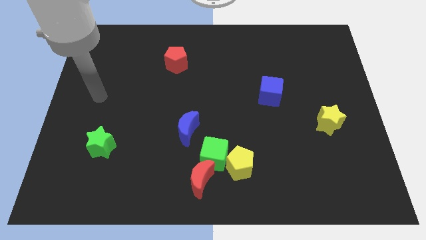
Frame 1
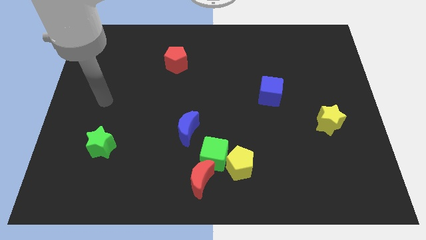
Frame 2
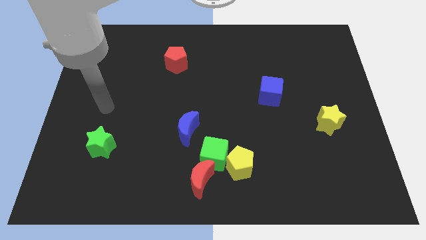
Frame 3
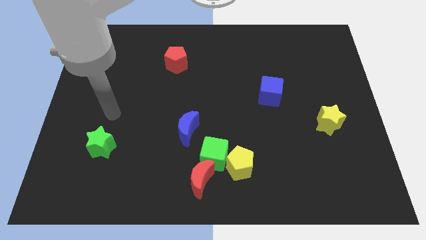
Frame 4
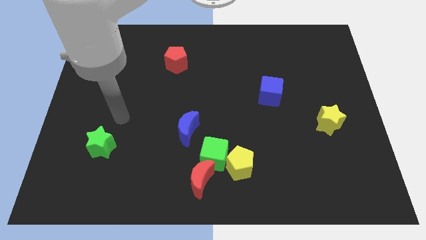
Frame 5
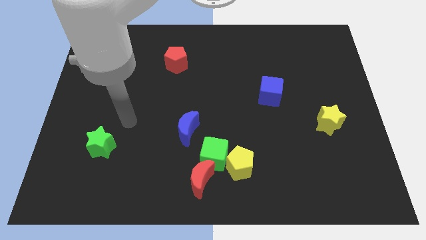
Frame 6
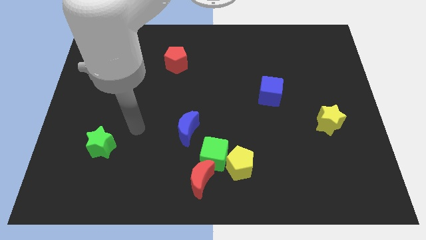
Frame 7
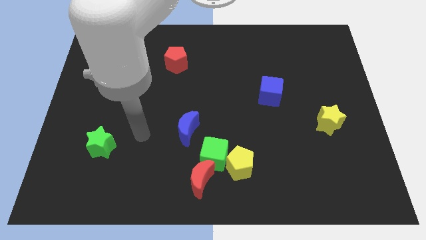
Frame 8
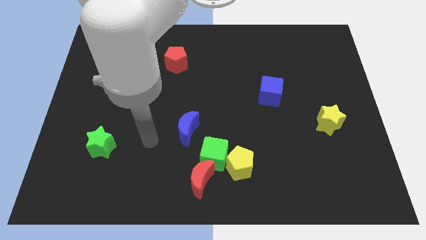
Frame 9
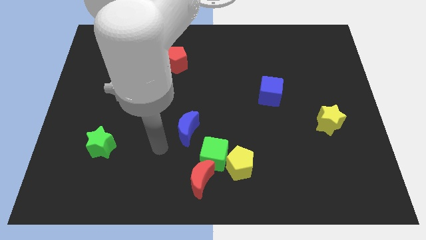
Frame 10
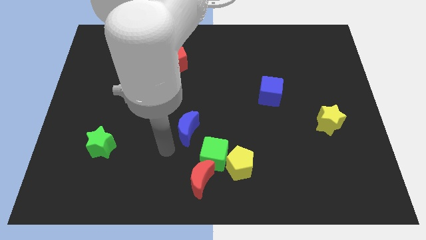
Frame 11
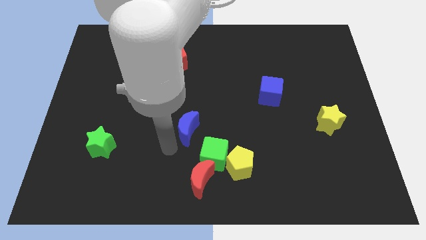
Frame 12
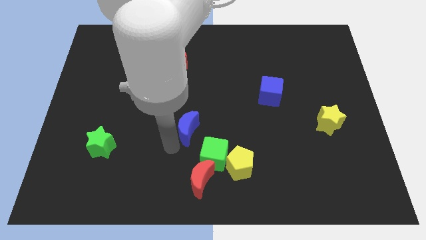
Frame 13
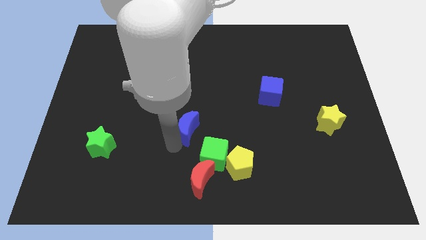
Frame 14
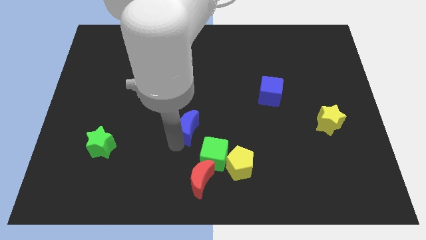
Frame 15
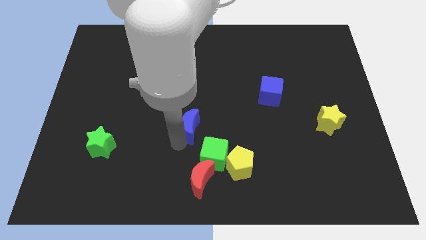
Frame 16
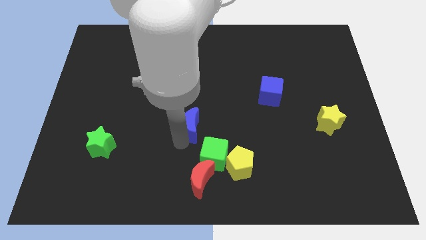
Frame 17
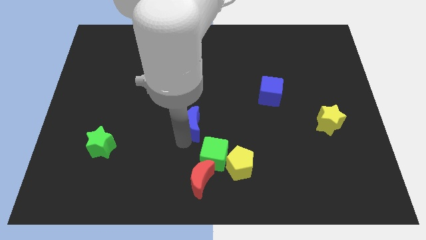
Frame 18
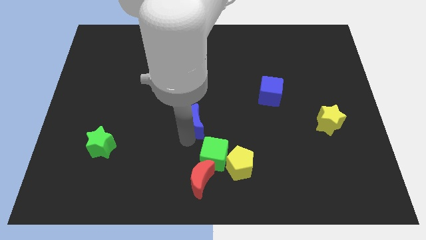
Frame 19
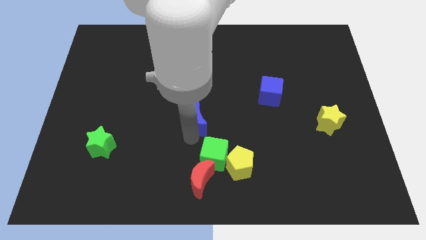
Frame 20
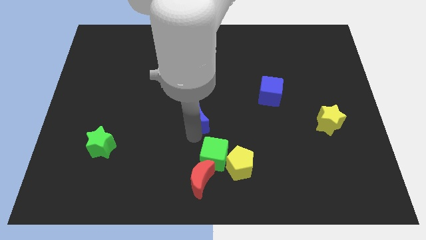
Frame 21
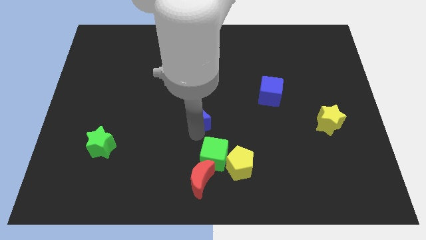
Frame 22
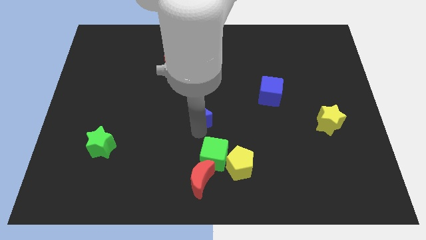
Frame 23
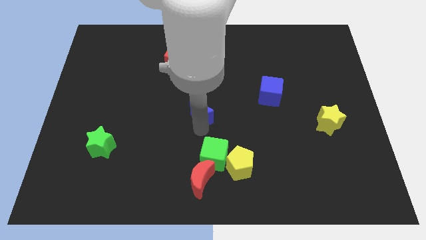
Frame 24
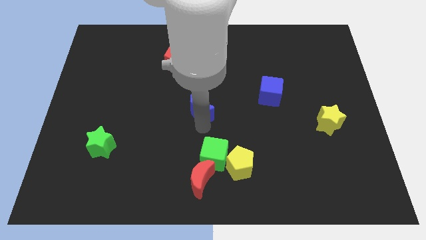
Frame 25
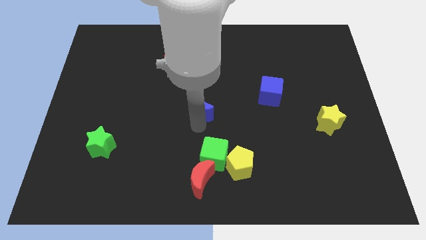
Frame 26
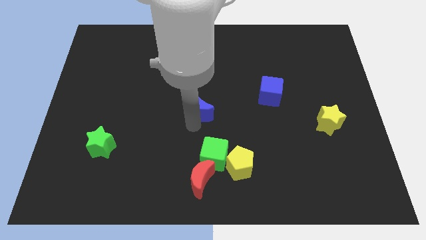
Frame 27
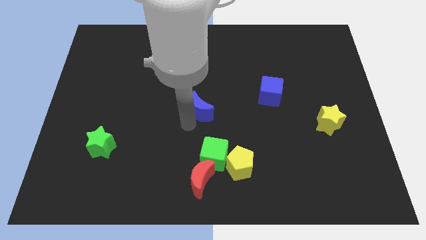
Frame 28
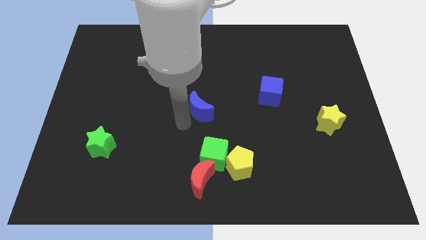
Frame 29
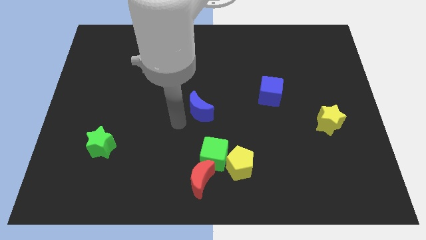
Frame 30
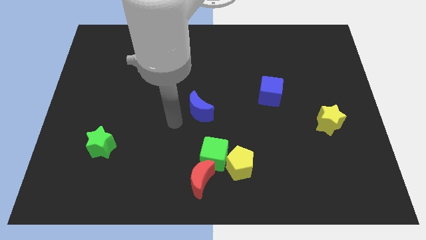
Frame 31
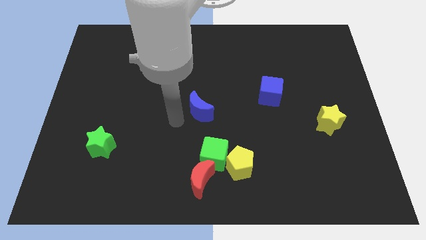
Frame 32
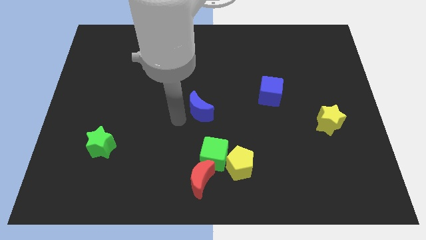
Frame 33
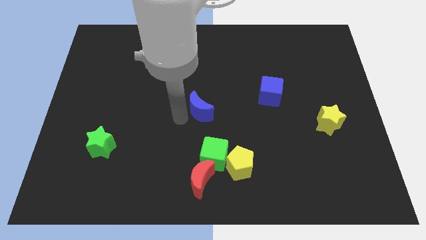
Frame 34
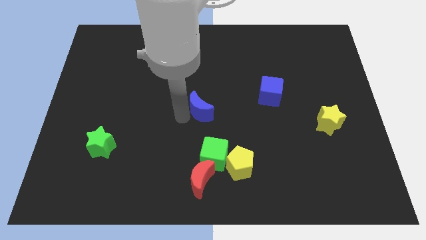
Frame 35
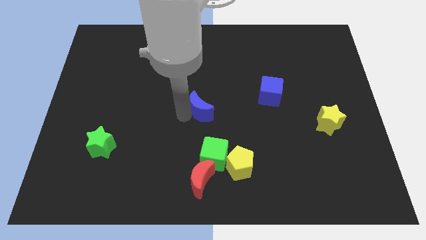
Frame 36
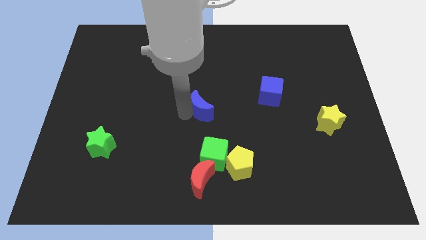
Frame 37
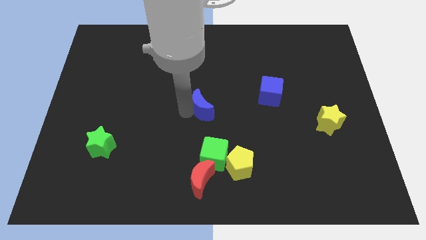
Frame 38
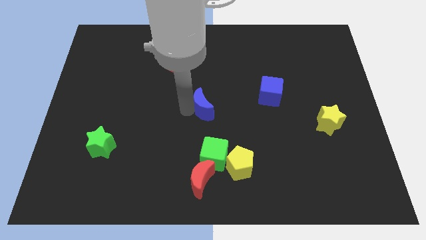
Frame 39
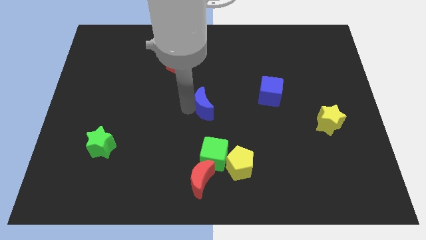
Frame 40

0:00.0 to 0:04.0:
slightly move the blue moon upwards and to the right

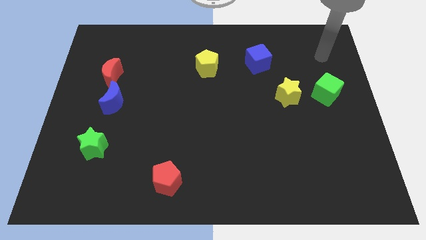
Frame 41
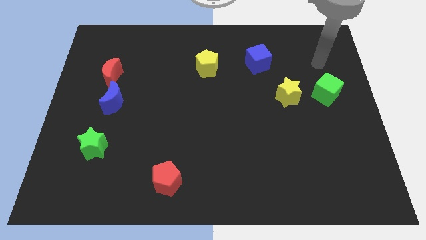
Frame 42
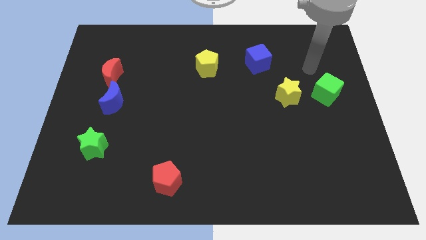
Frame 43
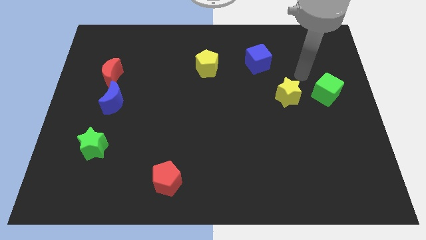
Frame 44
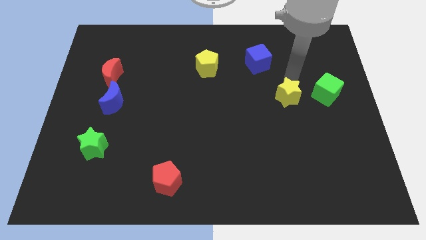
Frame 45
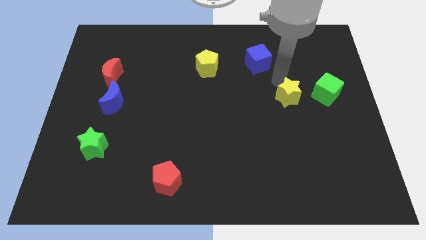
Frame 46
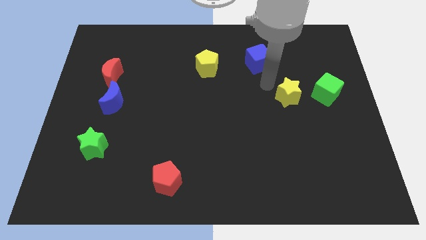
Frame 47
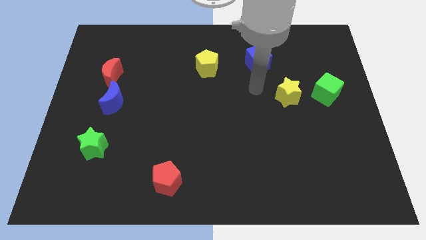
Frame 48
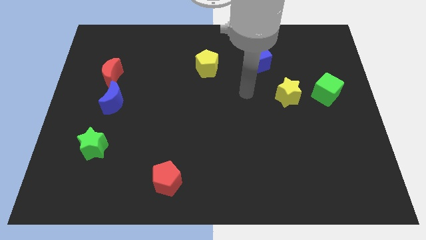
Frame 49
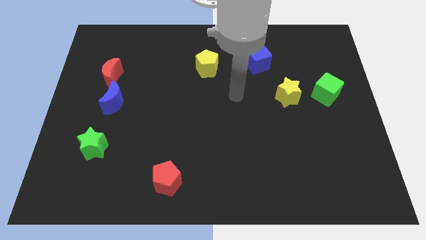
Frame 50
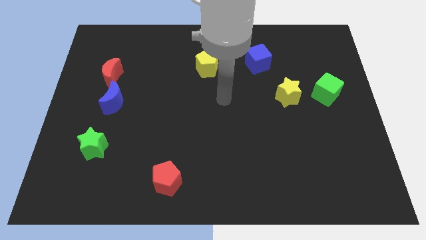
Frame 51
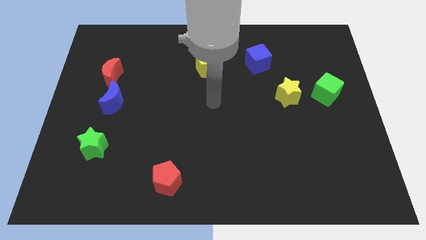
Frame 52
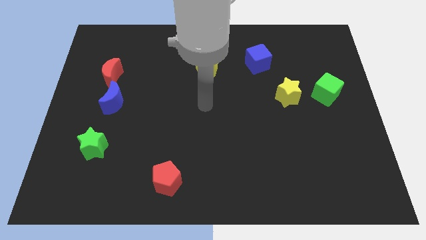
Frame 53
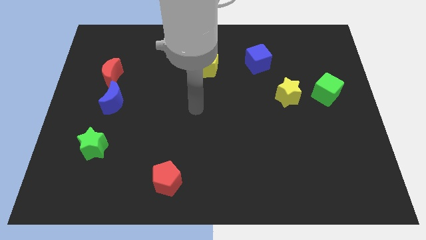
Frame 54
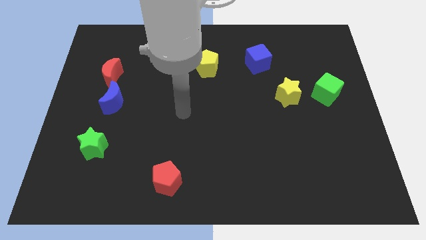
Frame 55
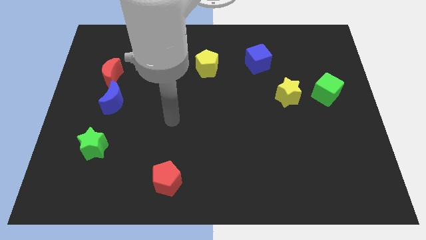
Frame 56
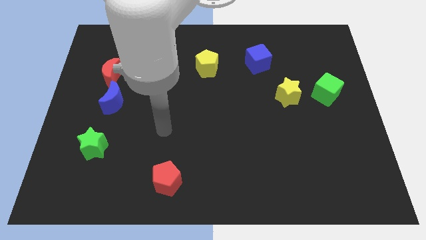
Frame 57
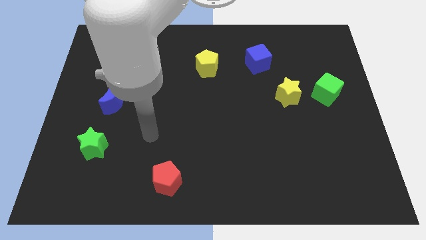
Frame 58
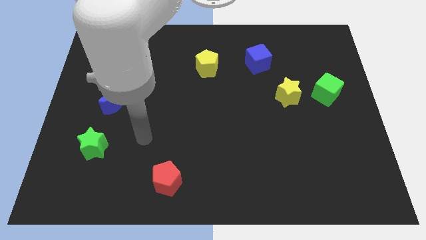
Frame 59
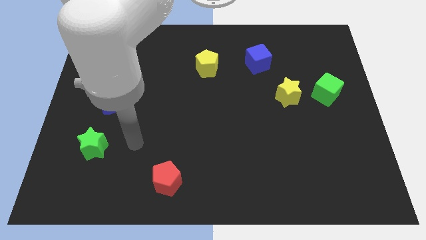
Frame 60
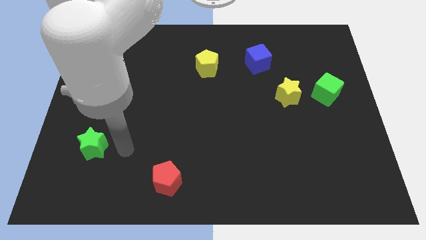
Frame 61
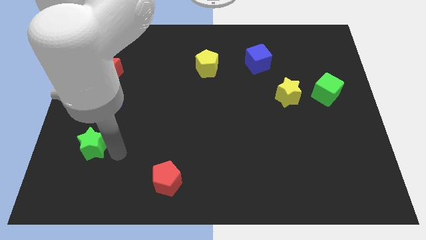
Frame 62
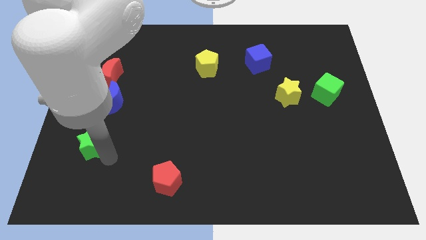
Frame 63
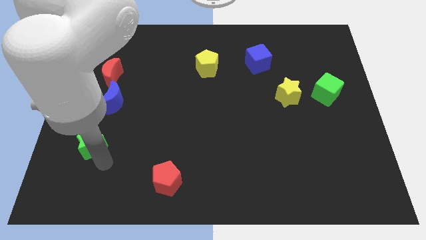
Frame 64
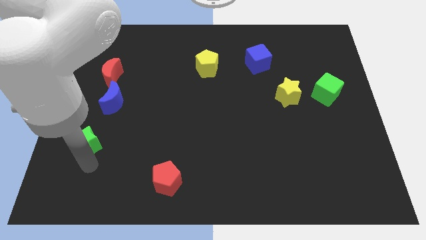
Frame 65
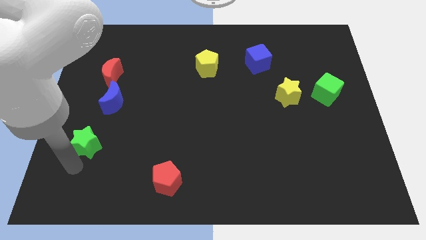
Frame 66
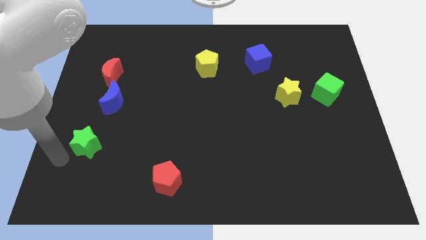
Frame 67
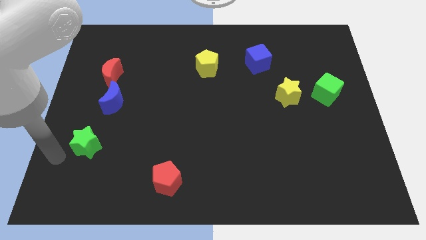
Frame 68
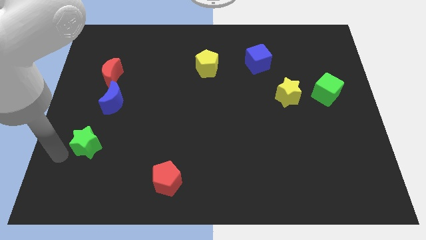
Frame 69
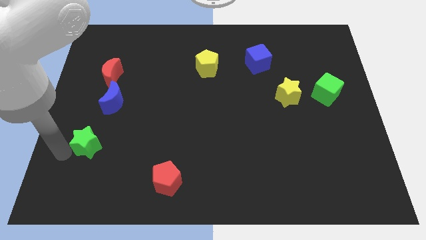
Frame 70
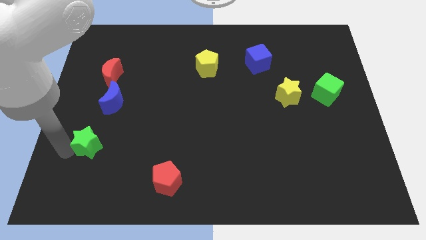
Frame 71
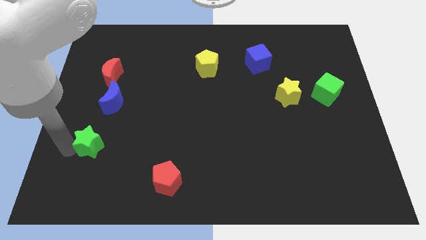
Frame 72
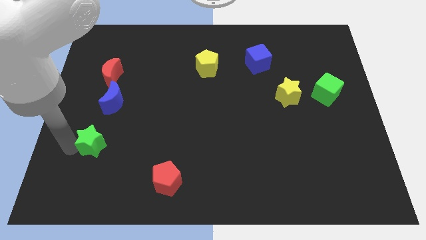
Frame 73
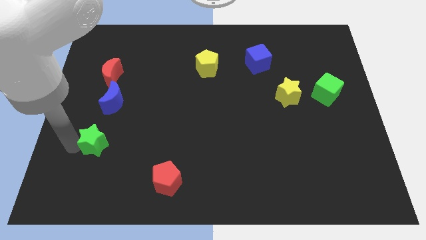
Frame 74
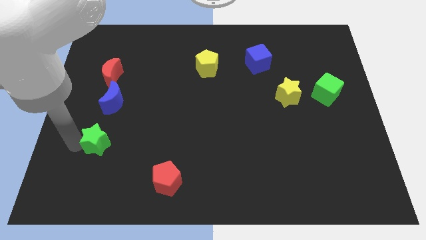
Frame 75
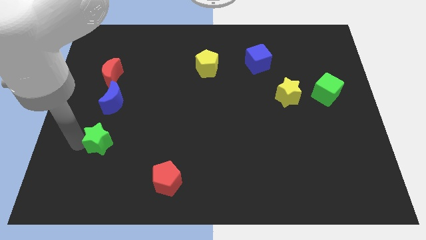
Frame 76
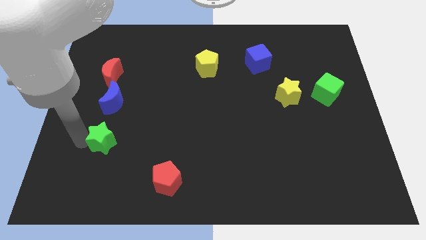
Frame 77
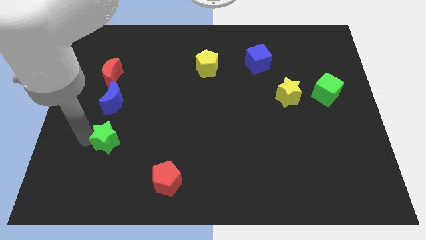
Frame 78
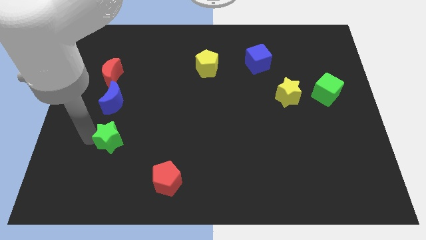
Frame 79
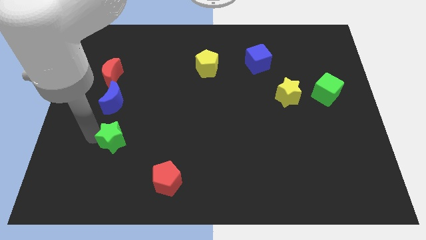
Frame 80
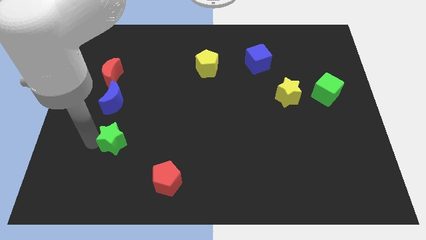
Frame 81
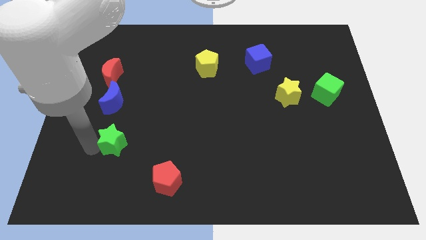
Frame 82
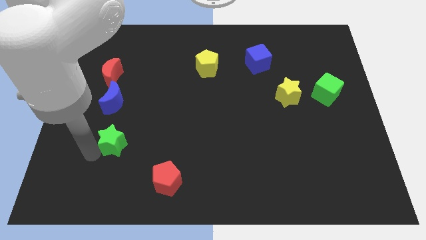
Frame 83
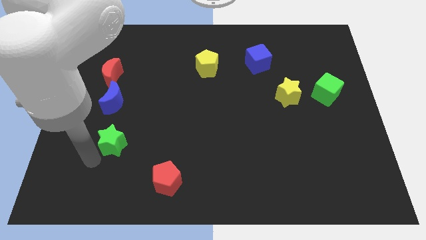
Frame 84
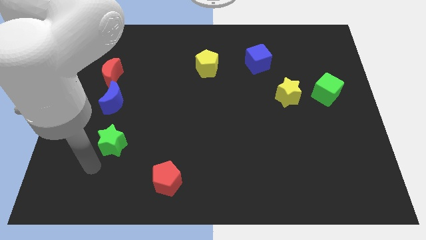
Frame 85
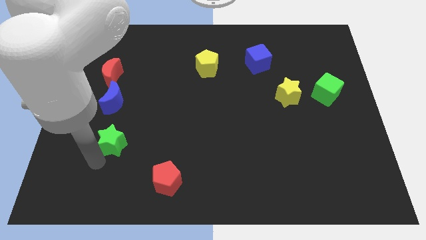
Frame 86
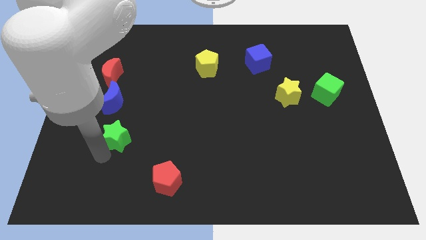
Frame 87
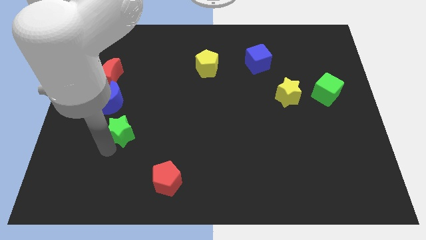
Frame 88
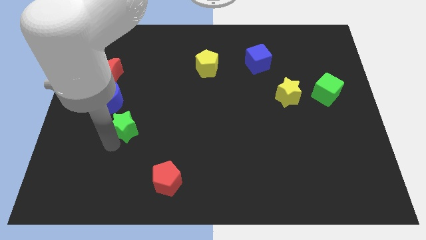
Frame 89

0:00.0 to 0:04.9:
move the green star slightly up and to the right
